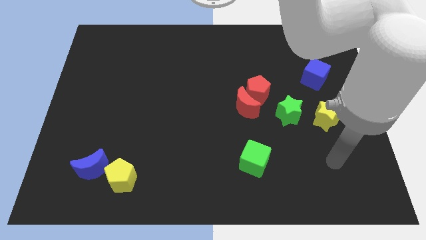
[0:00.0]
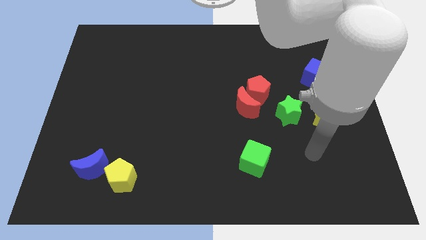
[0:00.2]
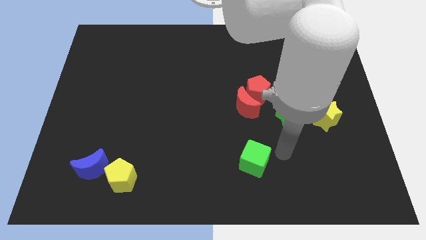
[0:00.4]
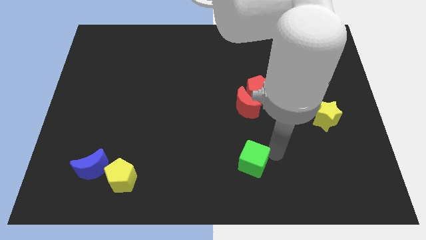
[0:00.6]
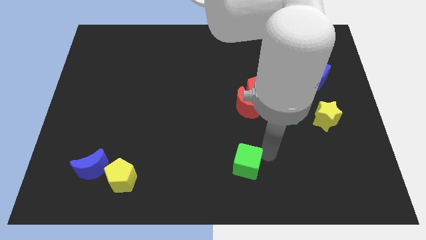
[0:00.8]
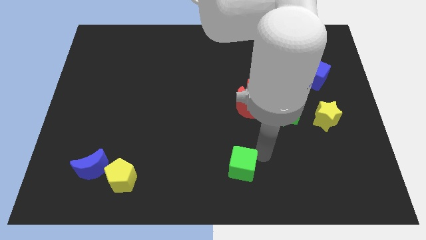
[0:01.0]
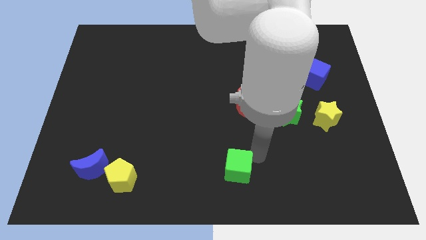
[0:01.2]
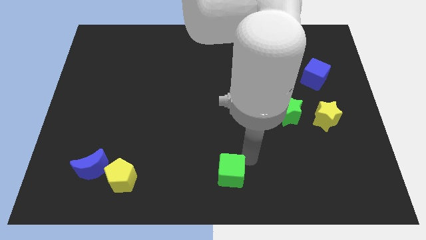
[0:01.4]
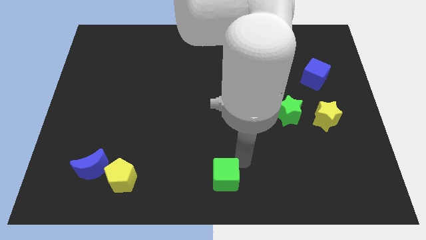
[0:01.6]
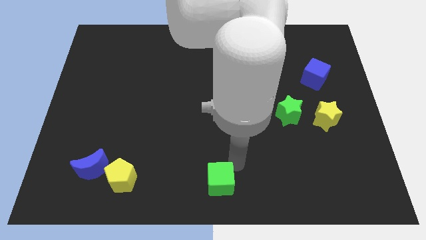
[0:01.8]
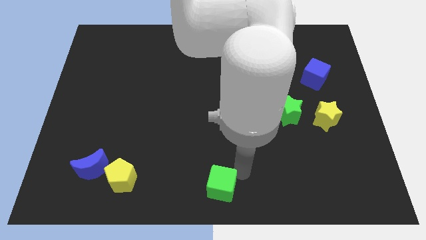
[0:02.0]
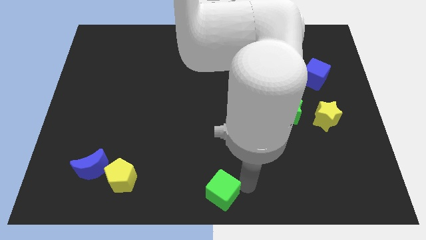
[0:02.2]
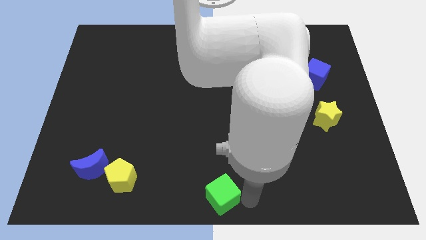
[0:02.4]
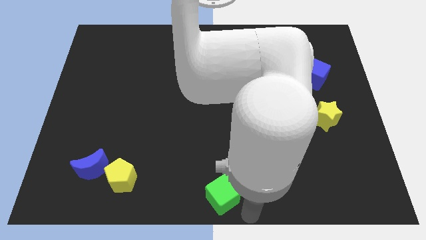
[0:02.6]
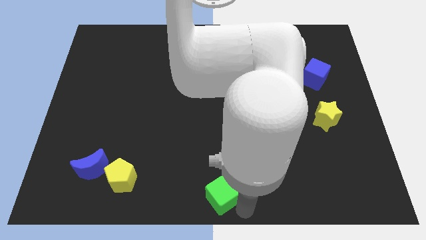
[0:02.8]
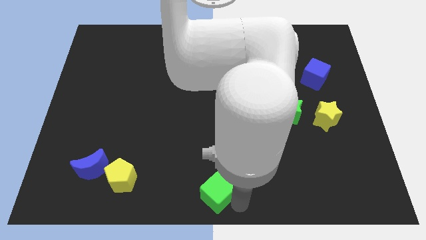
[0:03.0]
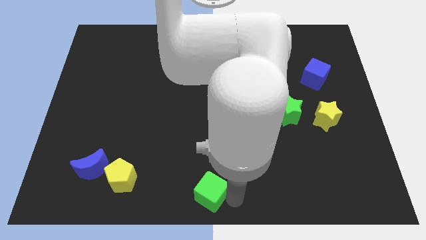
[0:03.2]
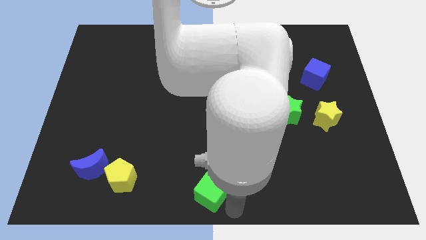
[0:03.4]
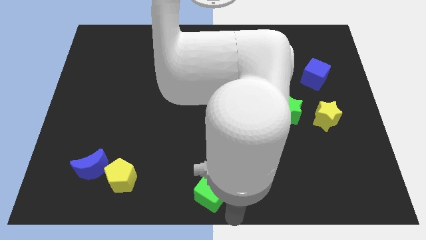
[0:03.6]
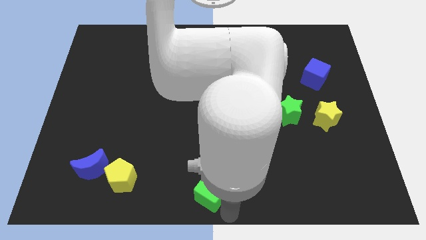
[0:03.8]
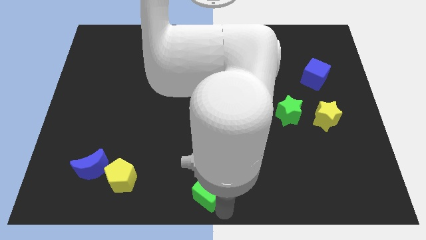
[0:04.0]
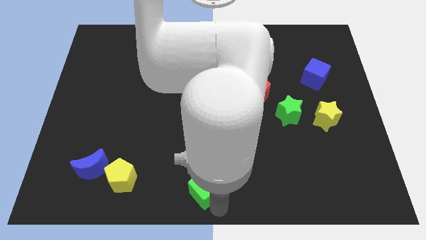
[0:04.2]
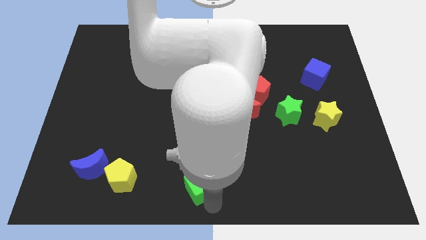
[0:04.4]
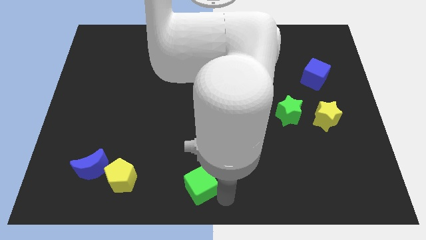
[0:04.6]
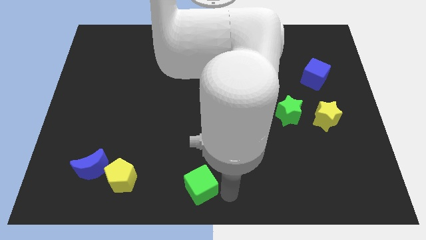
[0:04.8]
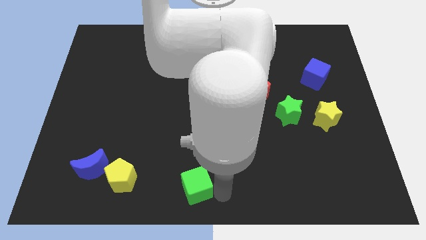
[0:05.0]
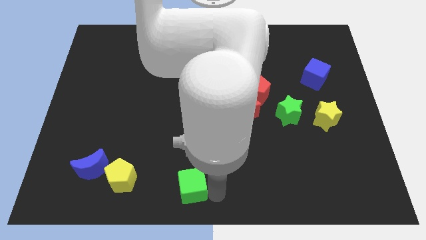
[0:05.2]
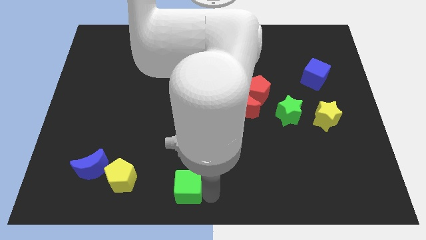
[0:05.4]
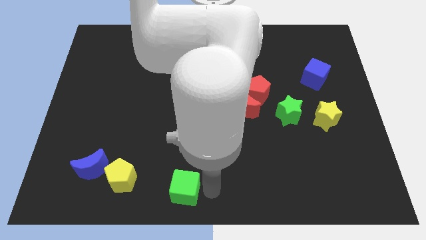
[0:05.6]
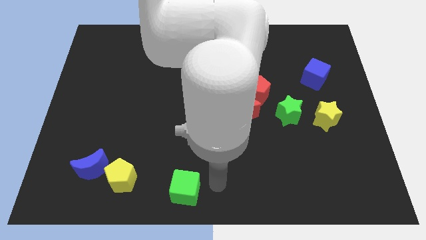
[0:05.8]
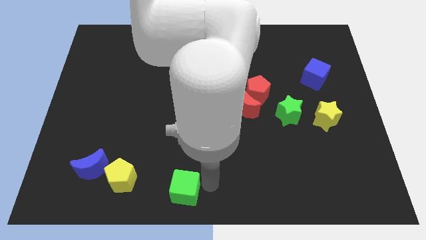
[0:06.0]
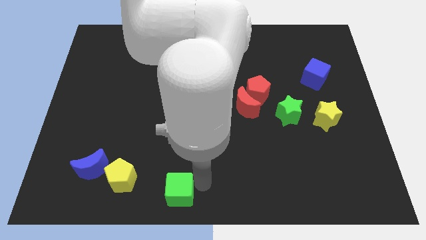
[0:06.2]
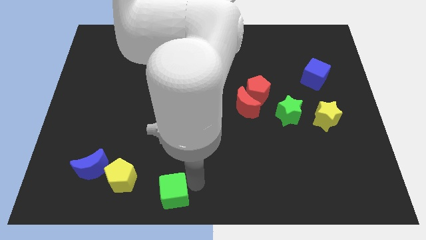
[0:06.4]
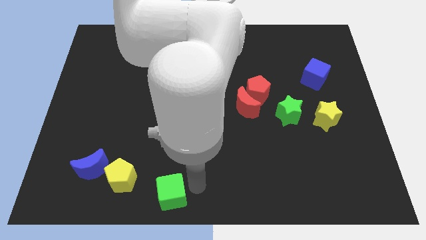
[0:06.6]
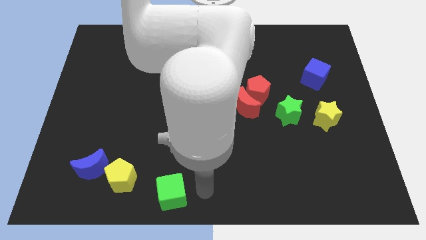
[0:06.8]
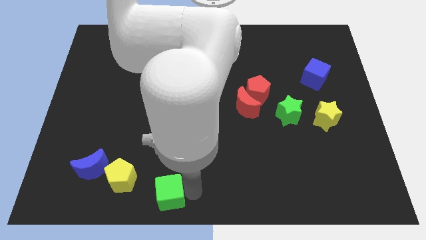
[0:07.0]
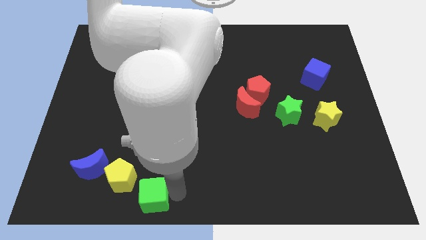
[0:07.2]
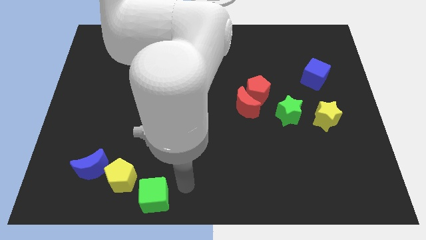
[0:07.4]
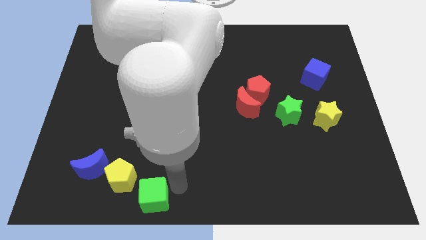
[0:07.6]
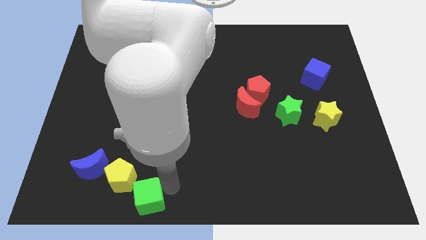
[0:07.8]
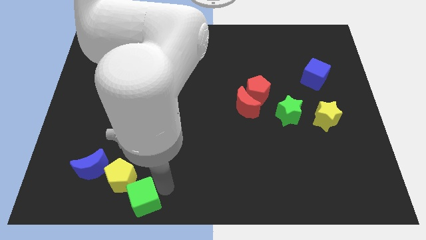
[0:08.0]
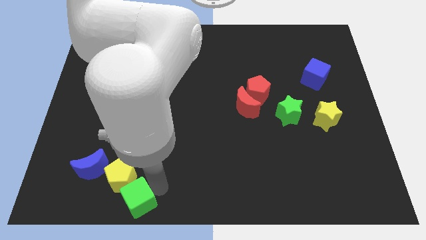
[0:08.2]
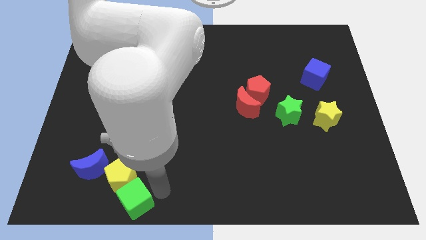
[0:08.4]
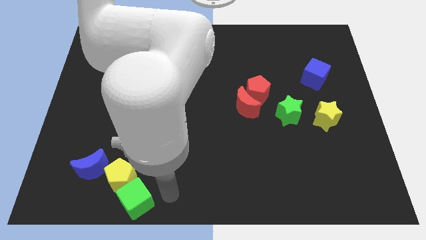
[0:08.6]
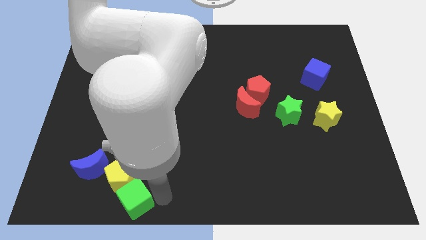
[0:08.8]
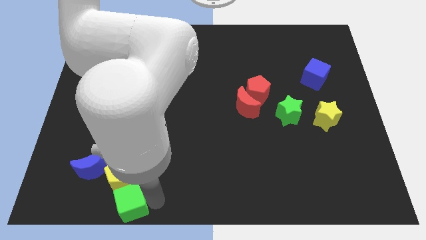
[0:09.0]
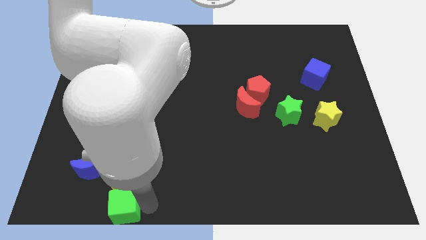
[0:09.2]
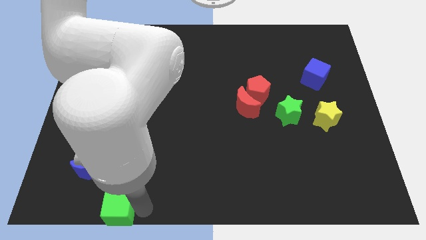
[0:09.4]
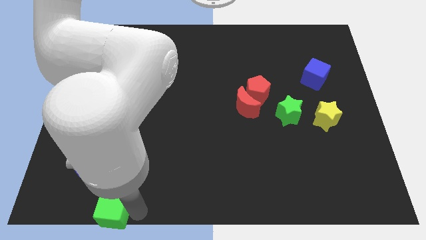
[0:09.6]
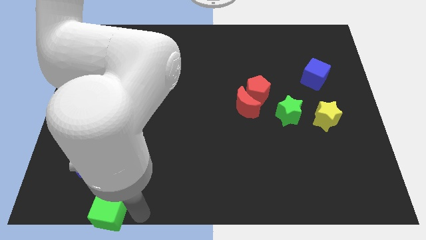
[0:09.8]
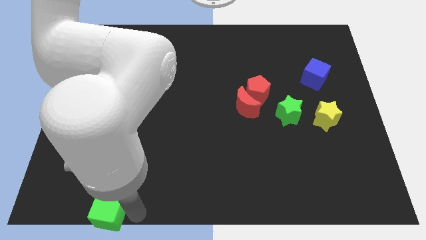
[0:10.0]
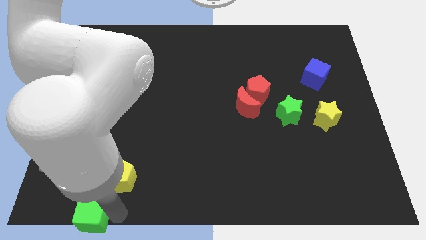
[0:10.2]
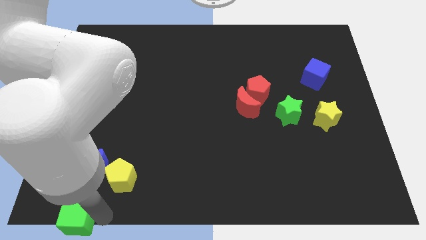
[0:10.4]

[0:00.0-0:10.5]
put the green cube to the lower left corner

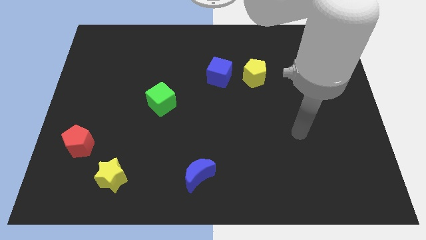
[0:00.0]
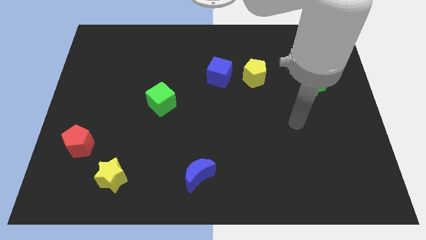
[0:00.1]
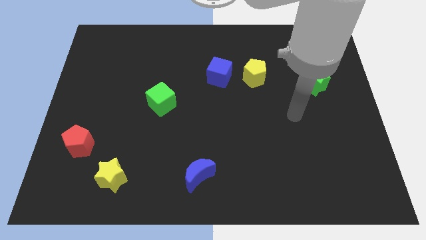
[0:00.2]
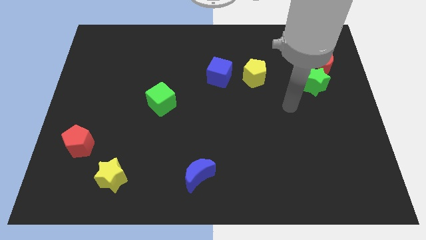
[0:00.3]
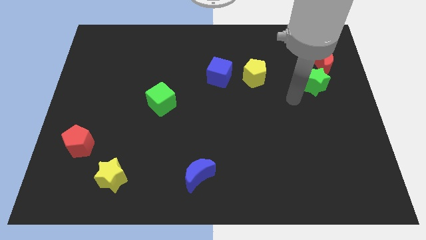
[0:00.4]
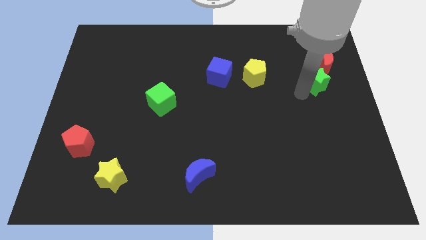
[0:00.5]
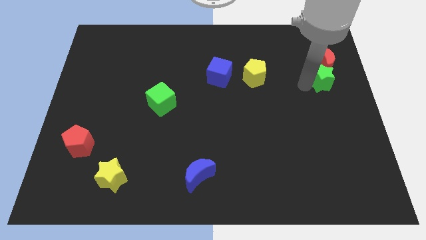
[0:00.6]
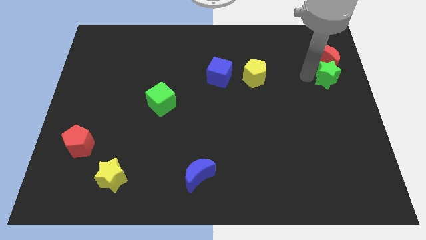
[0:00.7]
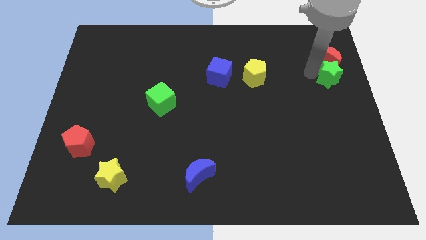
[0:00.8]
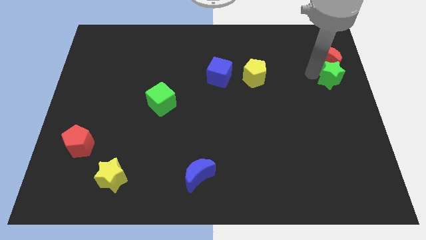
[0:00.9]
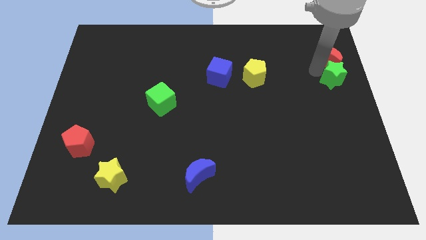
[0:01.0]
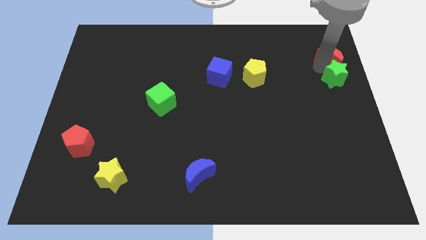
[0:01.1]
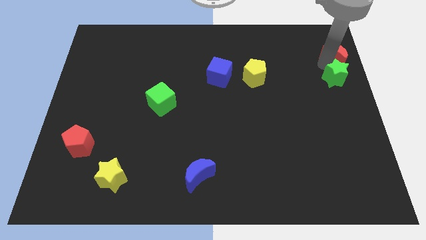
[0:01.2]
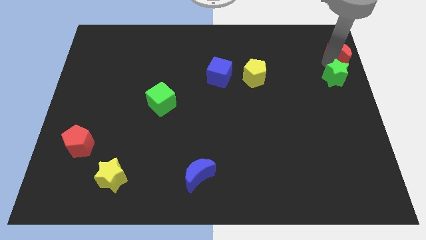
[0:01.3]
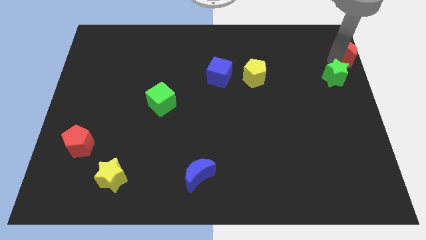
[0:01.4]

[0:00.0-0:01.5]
push the red moon to the top right of the board
